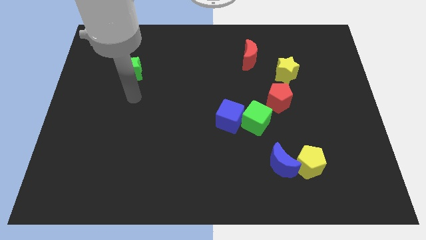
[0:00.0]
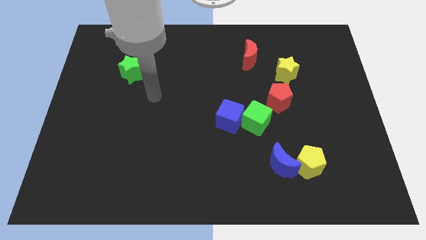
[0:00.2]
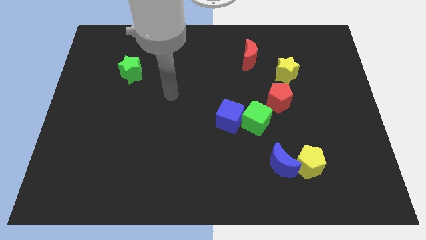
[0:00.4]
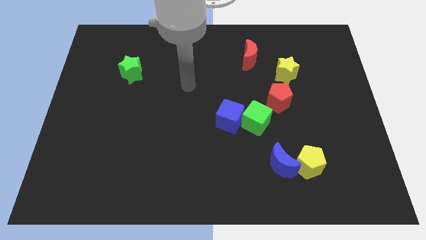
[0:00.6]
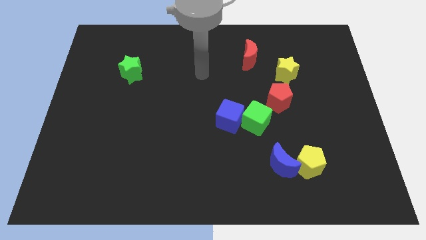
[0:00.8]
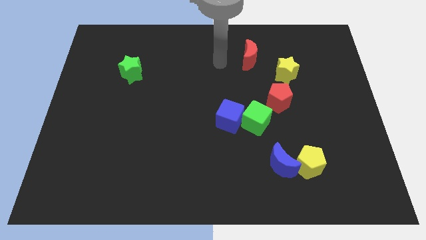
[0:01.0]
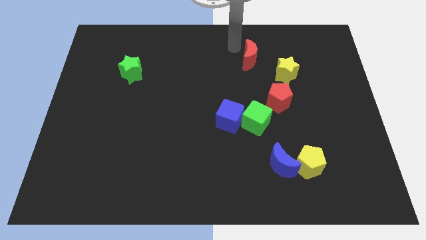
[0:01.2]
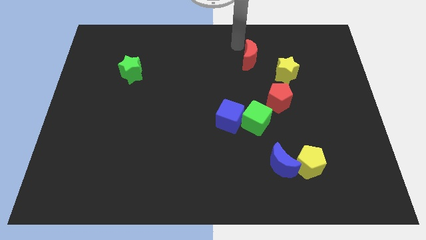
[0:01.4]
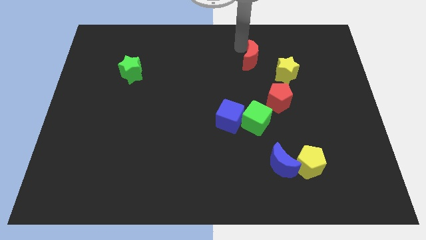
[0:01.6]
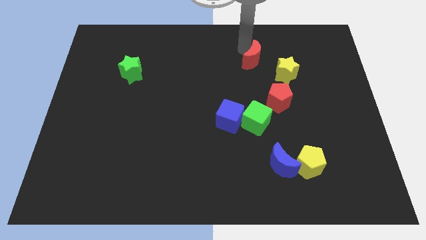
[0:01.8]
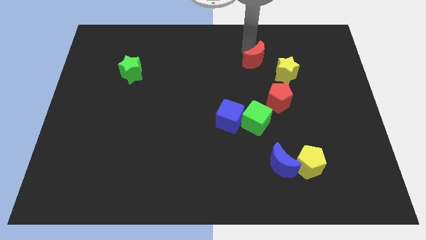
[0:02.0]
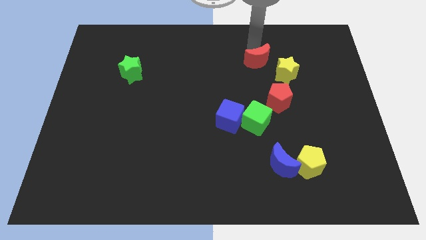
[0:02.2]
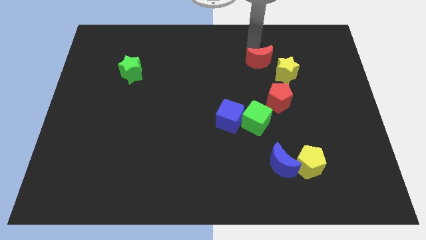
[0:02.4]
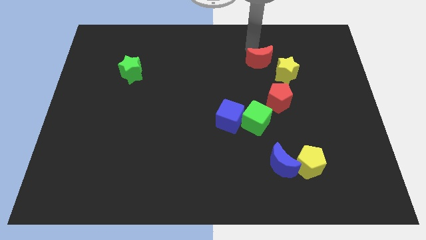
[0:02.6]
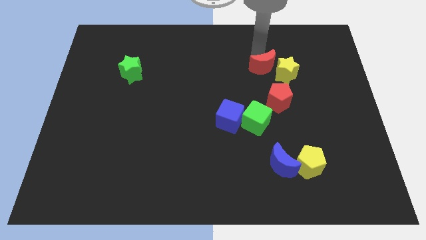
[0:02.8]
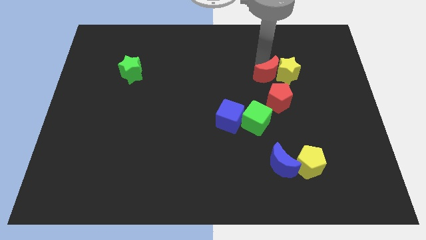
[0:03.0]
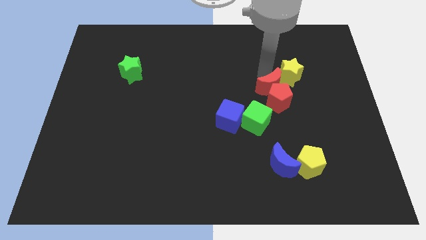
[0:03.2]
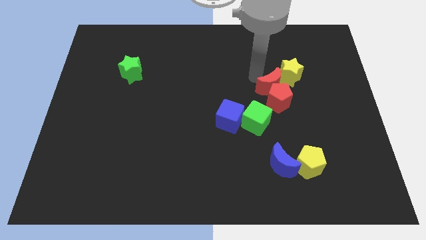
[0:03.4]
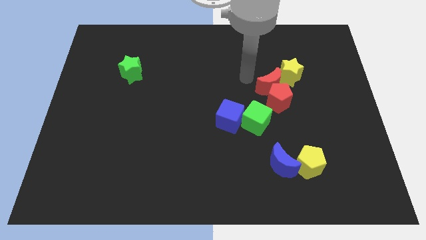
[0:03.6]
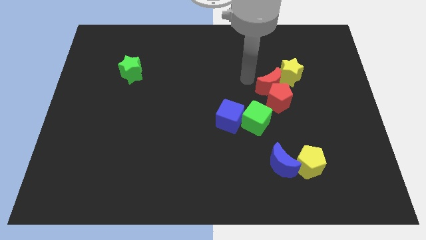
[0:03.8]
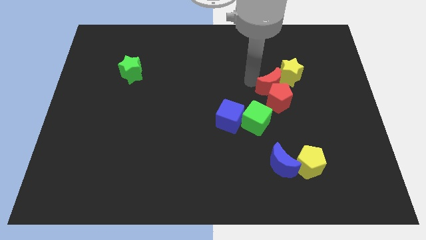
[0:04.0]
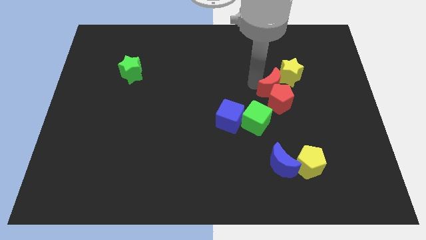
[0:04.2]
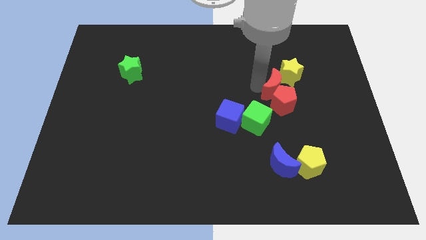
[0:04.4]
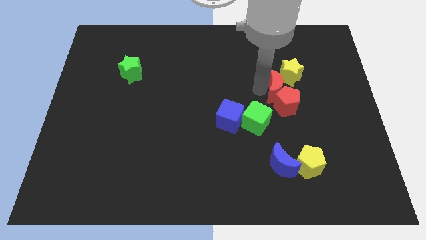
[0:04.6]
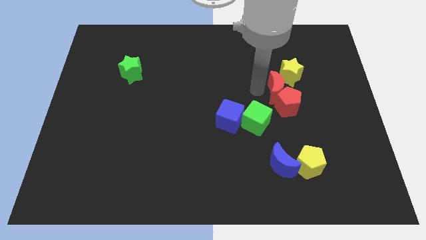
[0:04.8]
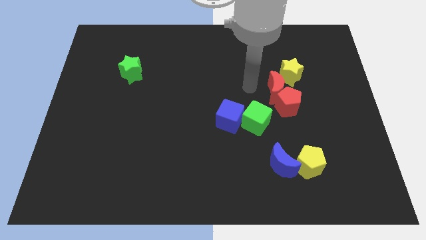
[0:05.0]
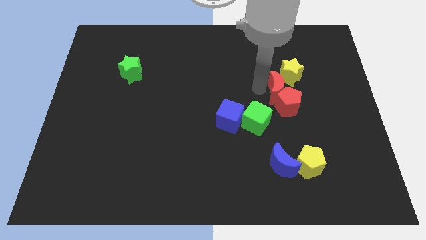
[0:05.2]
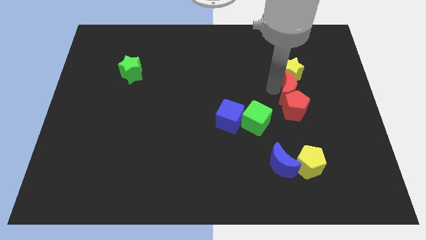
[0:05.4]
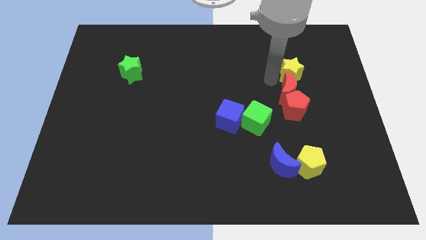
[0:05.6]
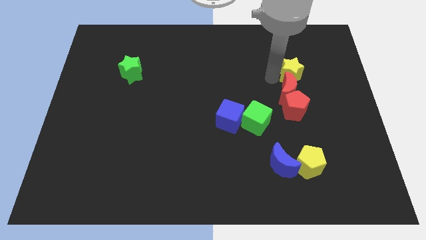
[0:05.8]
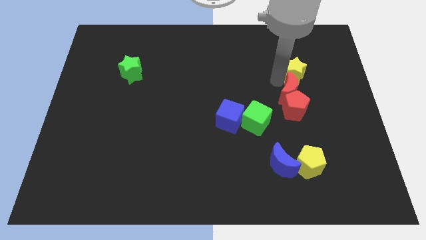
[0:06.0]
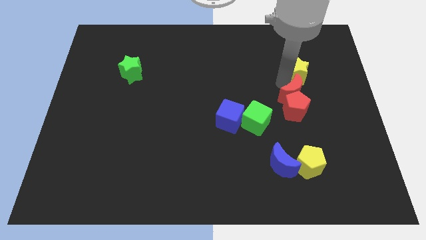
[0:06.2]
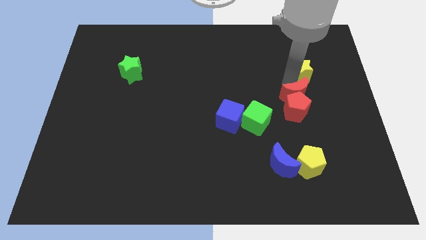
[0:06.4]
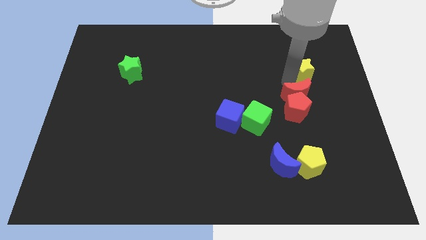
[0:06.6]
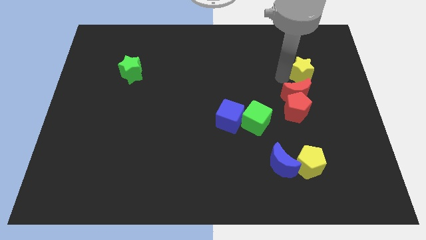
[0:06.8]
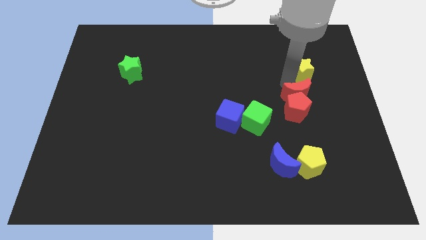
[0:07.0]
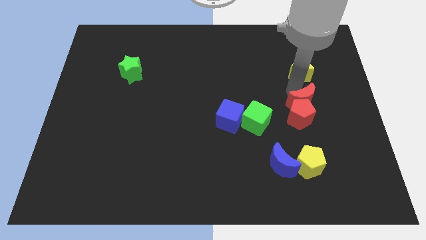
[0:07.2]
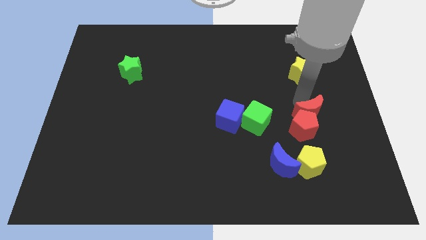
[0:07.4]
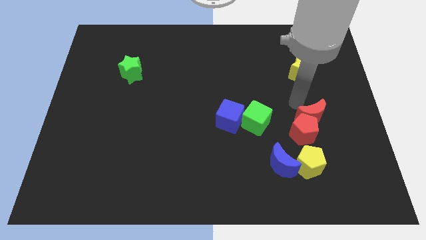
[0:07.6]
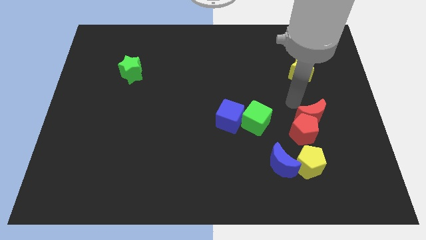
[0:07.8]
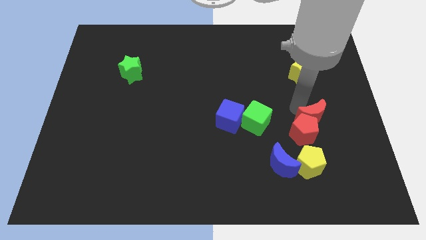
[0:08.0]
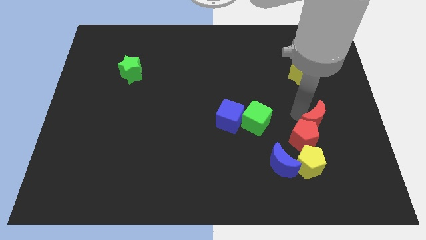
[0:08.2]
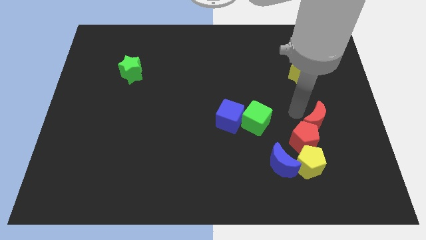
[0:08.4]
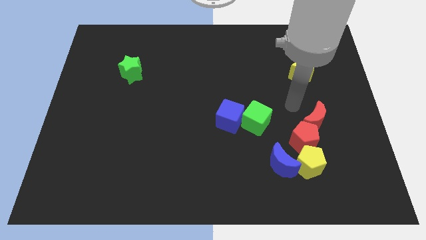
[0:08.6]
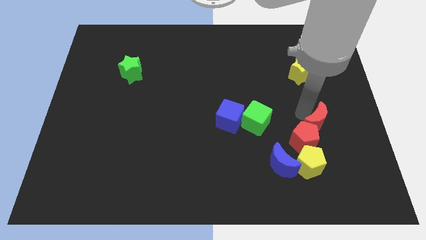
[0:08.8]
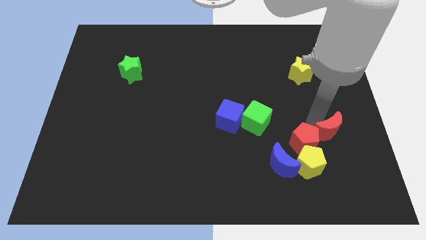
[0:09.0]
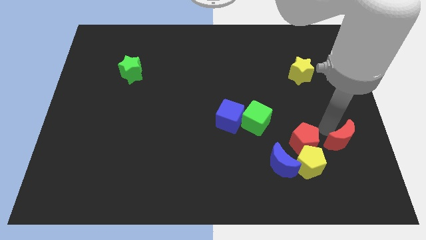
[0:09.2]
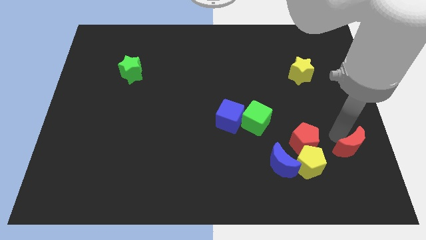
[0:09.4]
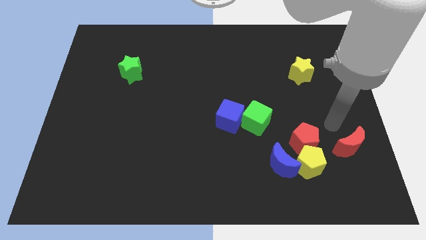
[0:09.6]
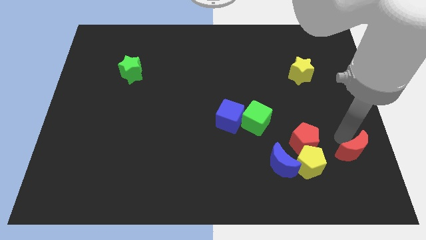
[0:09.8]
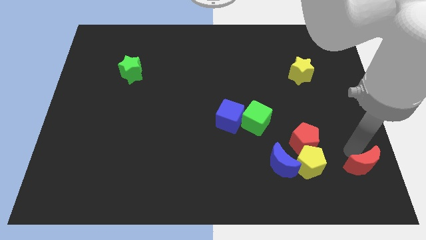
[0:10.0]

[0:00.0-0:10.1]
move the red moon to the bottom right corner

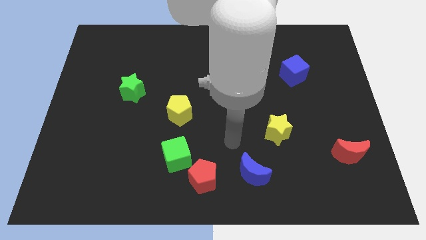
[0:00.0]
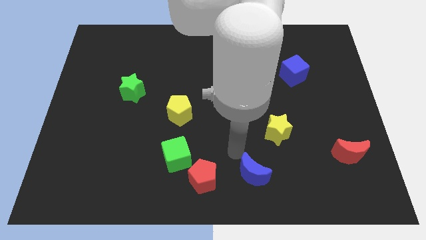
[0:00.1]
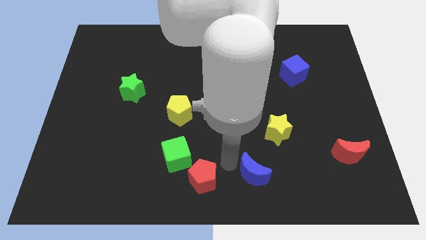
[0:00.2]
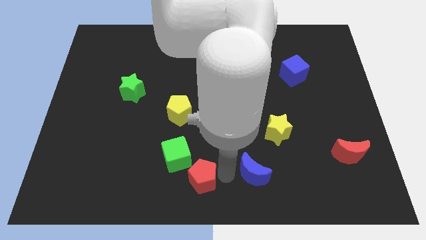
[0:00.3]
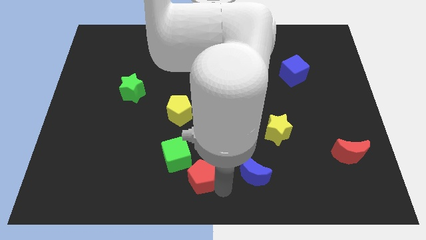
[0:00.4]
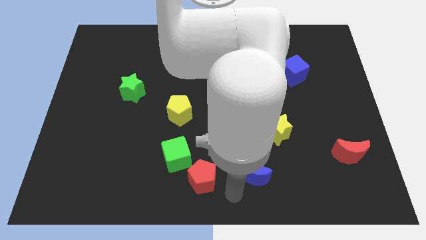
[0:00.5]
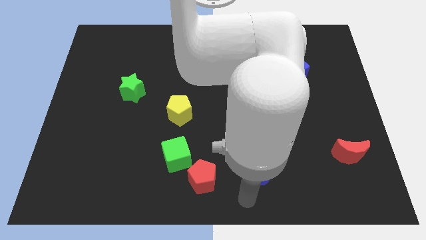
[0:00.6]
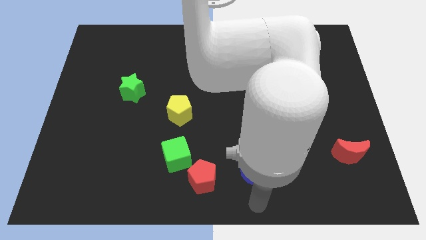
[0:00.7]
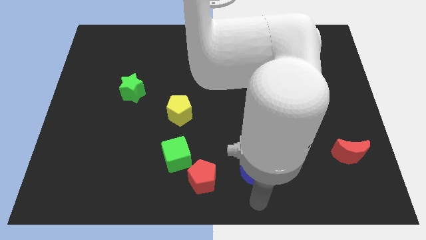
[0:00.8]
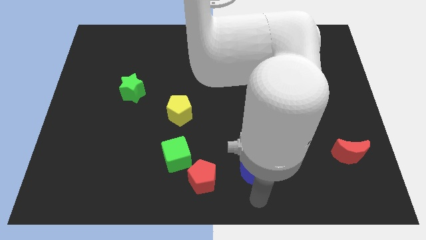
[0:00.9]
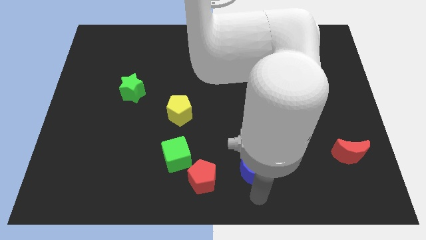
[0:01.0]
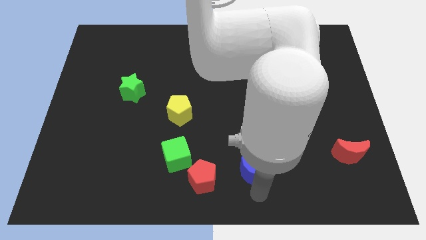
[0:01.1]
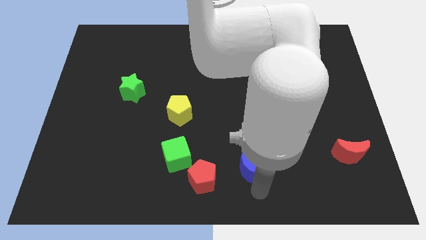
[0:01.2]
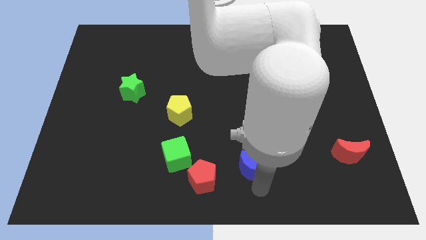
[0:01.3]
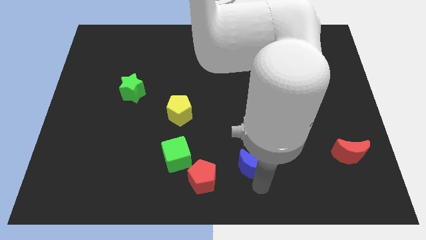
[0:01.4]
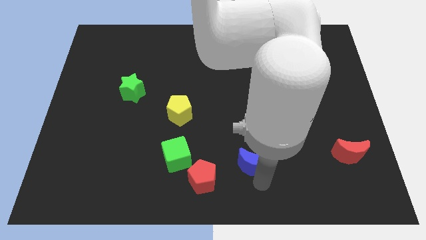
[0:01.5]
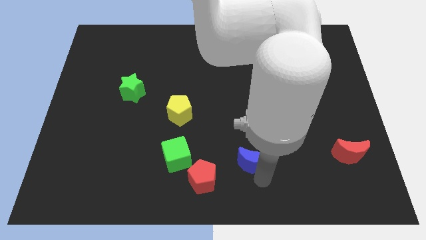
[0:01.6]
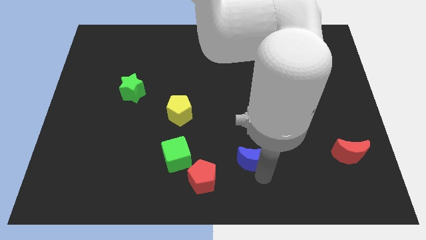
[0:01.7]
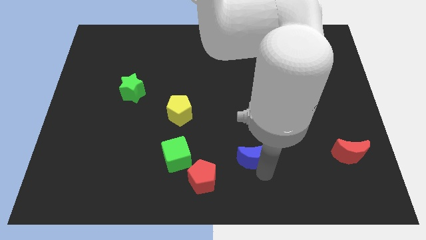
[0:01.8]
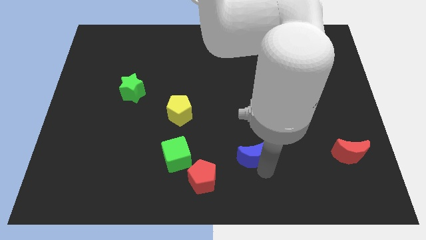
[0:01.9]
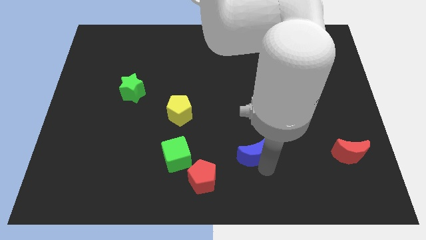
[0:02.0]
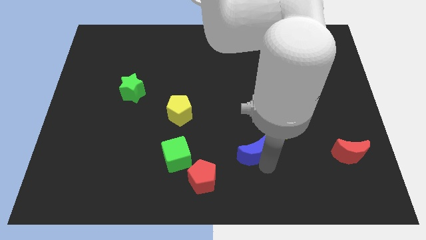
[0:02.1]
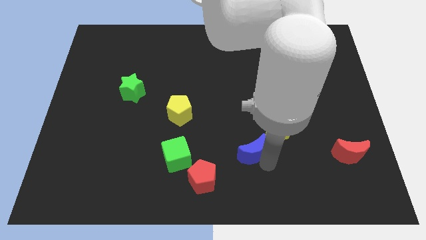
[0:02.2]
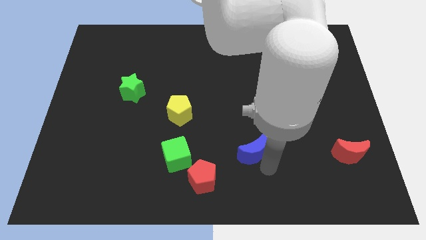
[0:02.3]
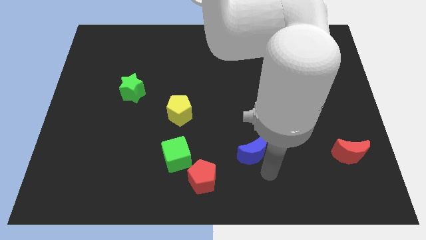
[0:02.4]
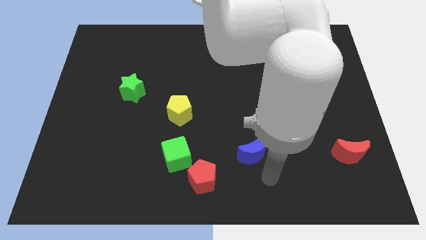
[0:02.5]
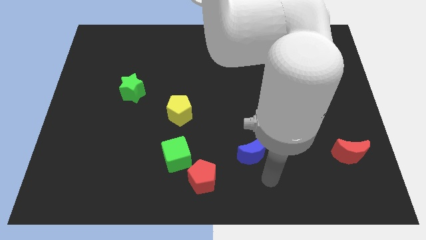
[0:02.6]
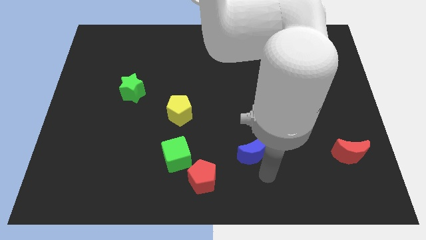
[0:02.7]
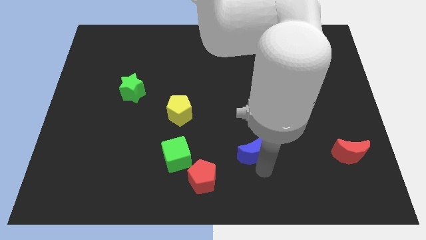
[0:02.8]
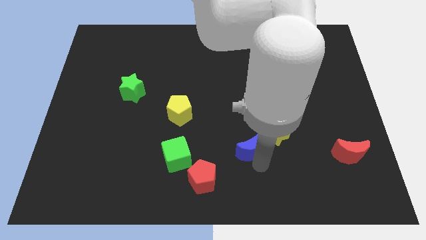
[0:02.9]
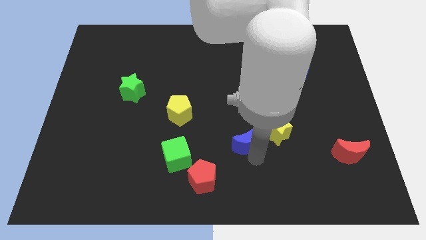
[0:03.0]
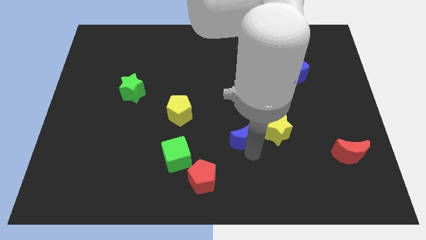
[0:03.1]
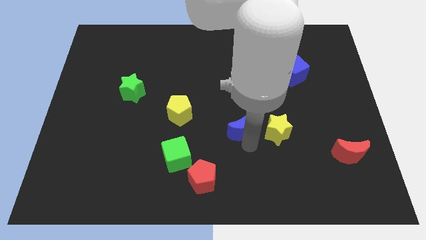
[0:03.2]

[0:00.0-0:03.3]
move the blue moon to the middle of the board
